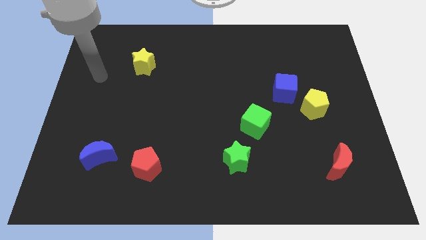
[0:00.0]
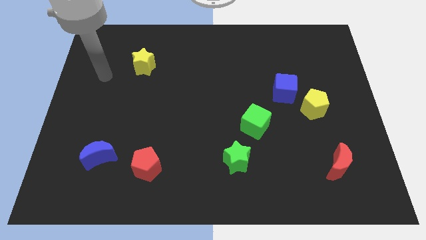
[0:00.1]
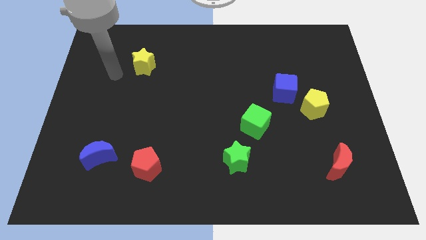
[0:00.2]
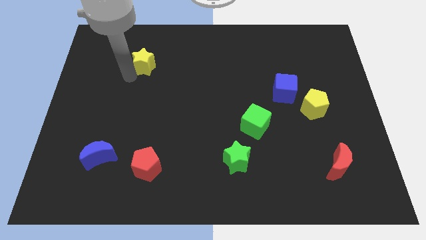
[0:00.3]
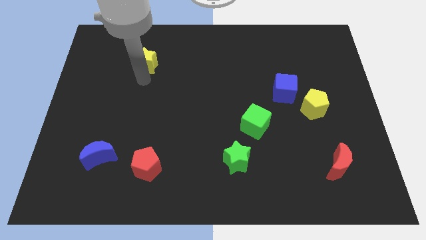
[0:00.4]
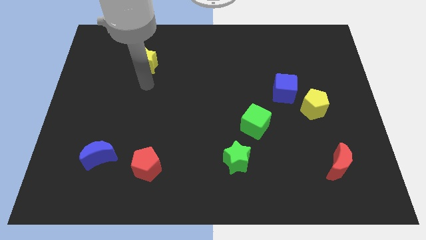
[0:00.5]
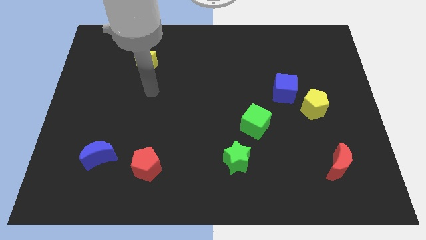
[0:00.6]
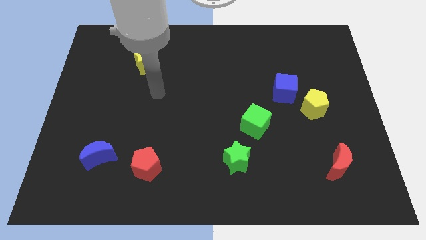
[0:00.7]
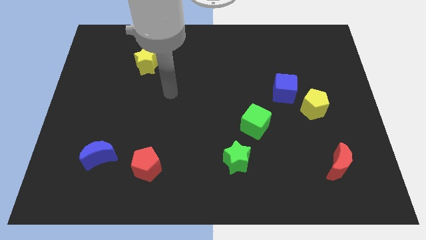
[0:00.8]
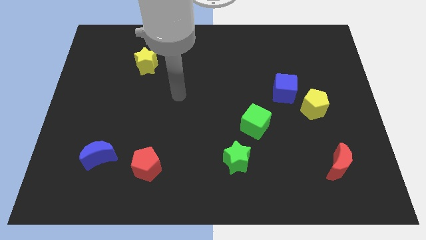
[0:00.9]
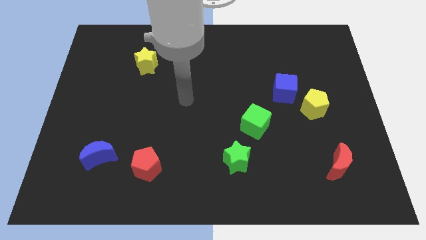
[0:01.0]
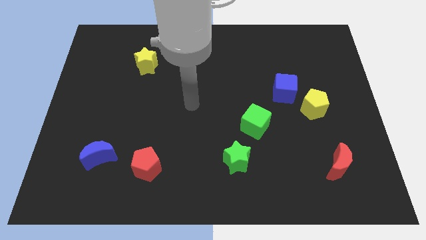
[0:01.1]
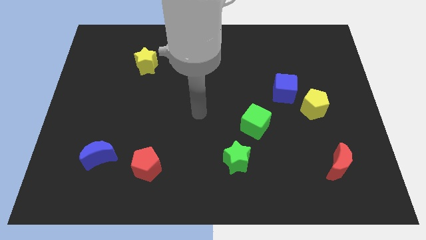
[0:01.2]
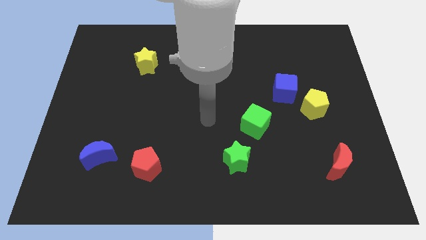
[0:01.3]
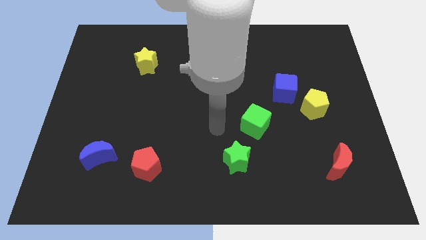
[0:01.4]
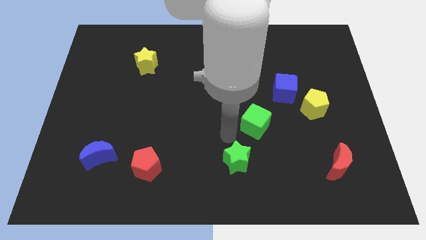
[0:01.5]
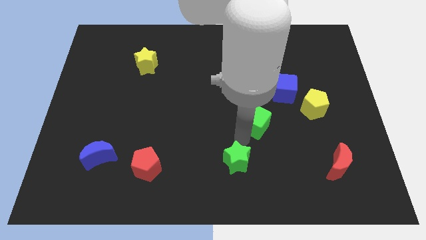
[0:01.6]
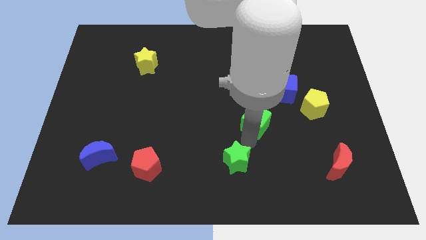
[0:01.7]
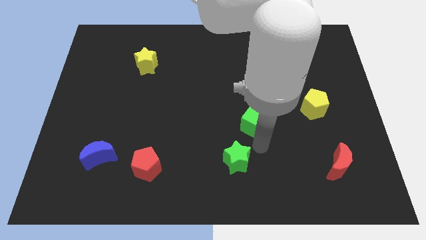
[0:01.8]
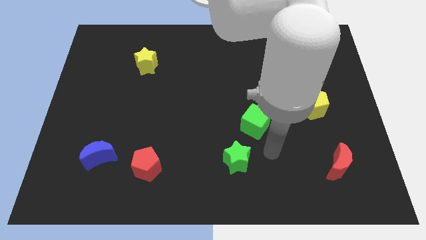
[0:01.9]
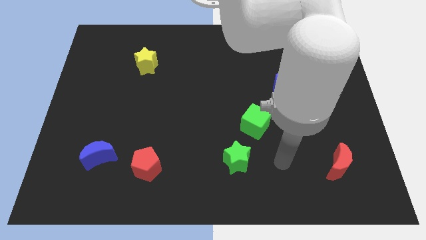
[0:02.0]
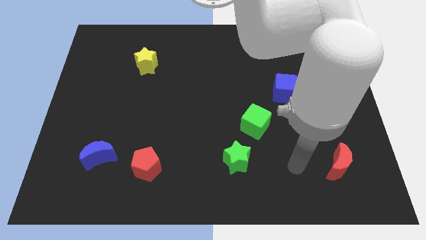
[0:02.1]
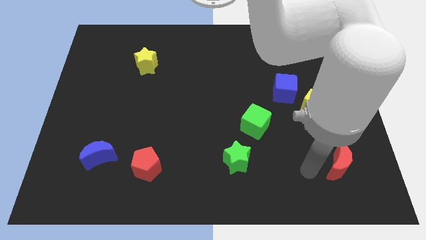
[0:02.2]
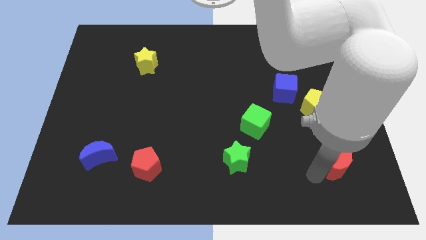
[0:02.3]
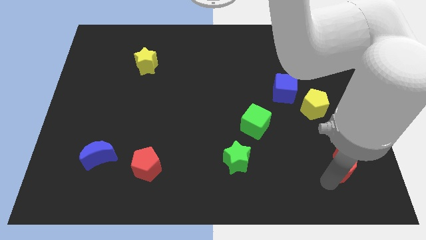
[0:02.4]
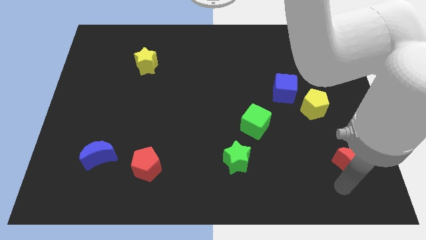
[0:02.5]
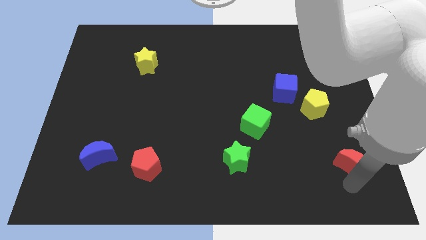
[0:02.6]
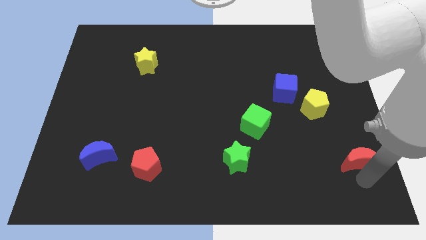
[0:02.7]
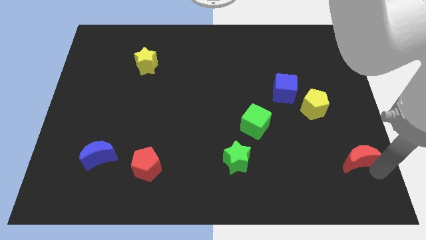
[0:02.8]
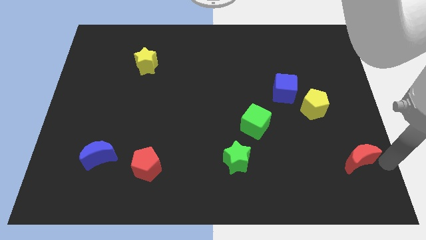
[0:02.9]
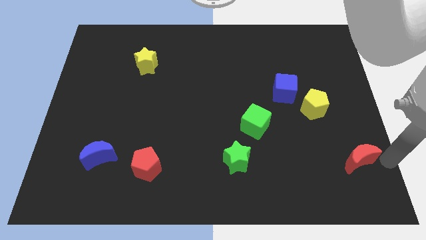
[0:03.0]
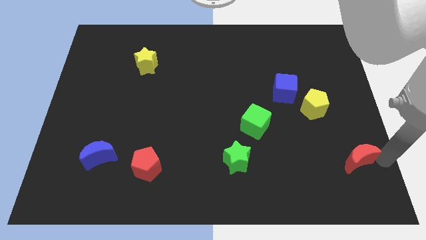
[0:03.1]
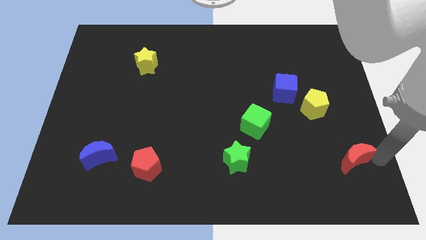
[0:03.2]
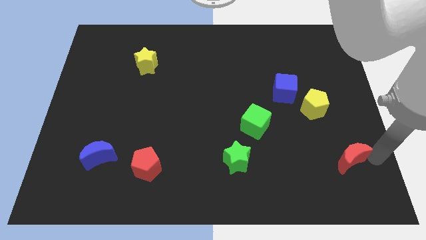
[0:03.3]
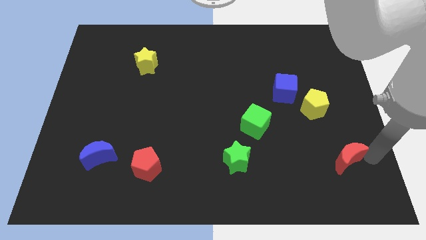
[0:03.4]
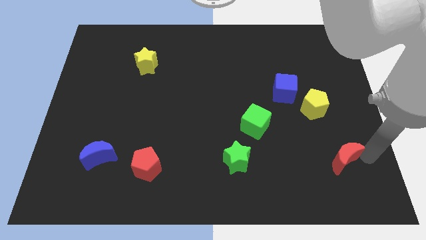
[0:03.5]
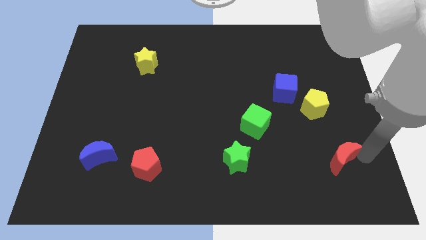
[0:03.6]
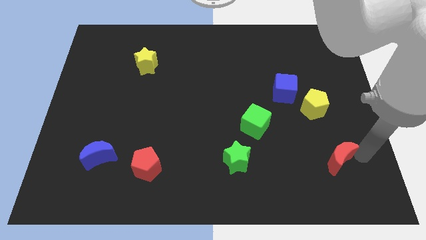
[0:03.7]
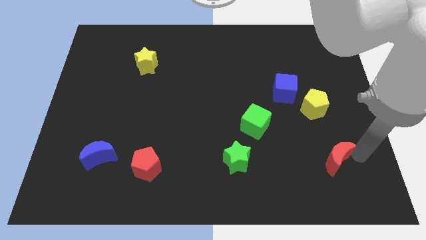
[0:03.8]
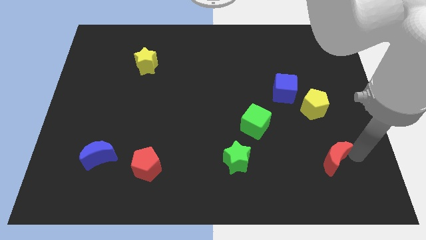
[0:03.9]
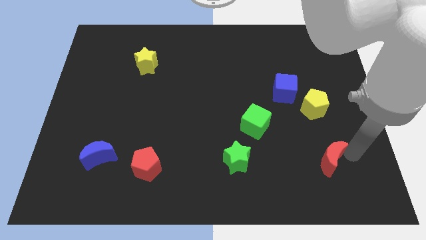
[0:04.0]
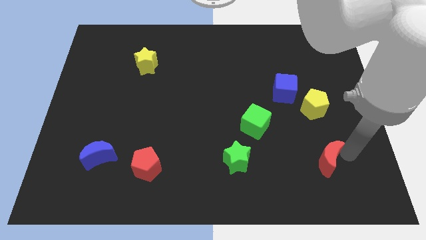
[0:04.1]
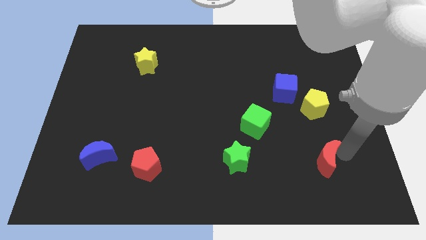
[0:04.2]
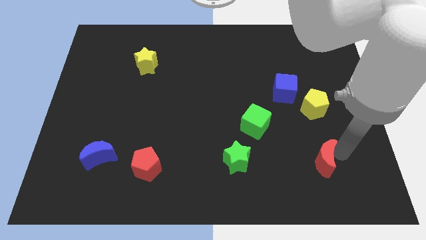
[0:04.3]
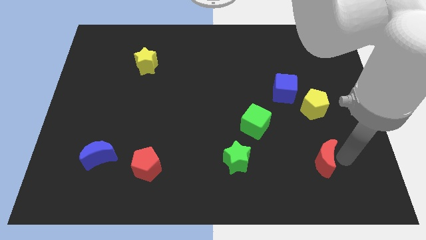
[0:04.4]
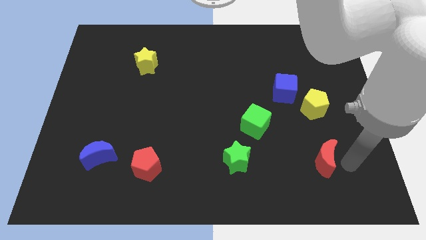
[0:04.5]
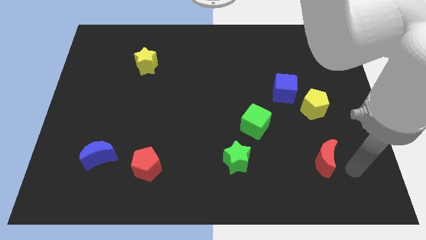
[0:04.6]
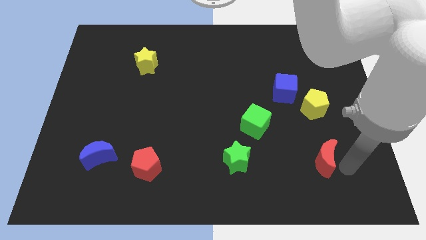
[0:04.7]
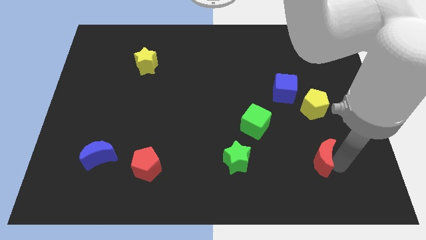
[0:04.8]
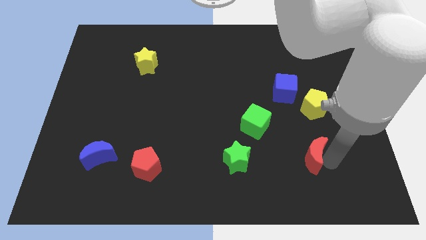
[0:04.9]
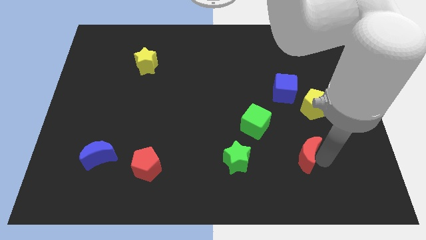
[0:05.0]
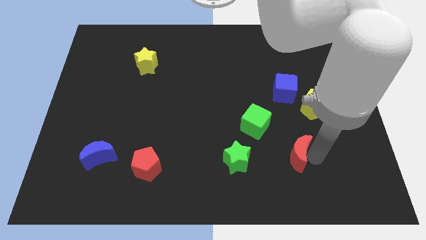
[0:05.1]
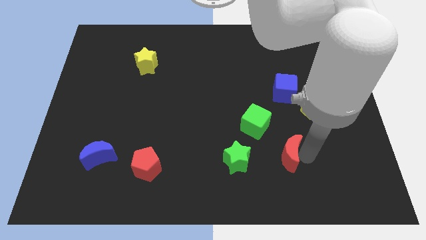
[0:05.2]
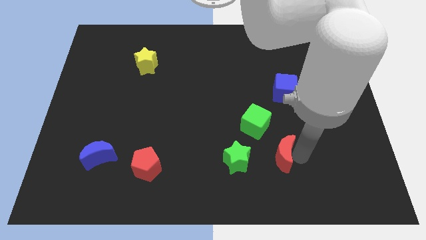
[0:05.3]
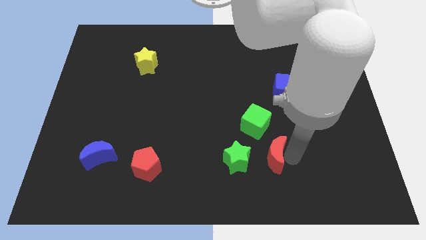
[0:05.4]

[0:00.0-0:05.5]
put the red moon to the top right of the green star

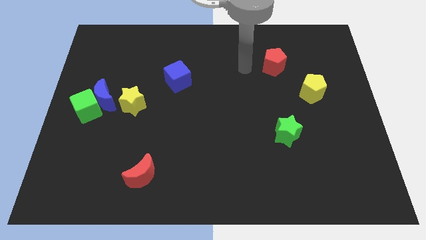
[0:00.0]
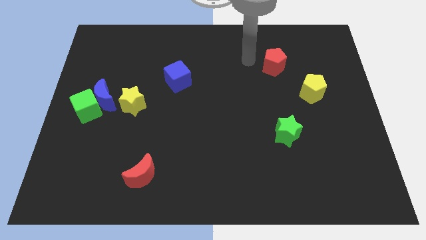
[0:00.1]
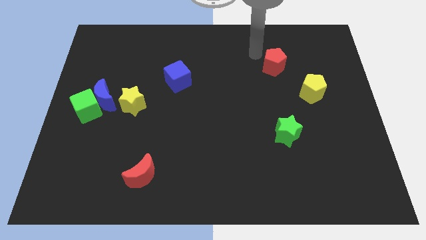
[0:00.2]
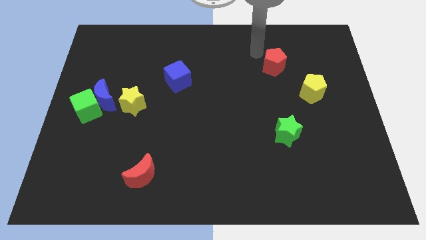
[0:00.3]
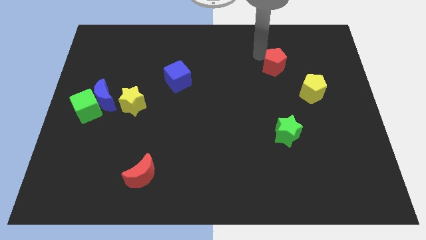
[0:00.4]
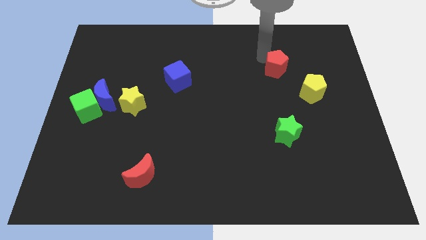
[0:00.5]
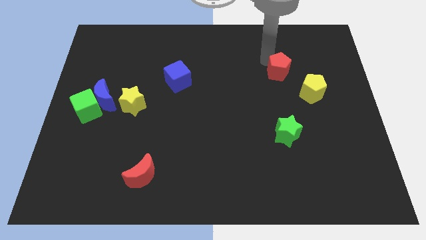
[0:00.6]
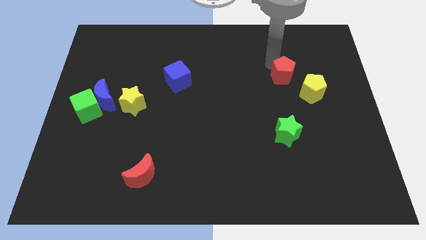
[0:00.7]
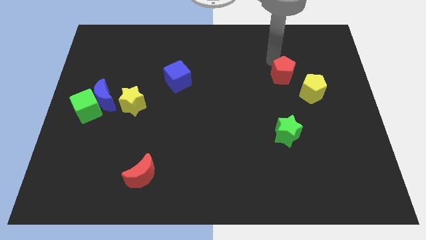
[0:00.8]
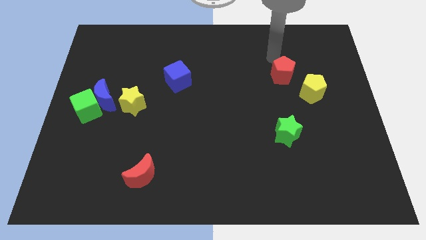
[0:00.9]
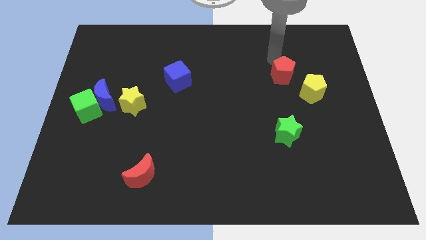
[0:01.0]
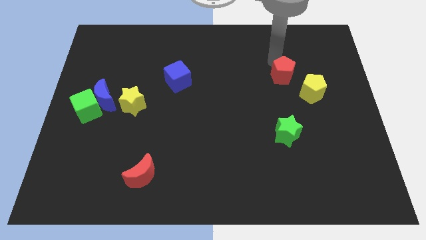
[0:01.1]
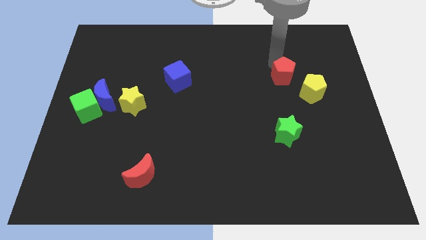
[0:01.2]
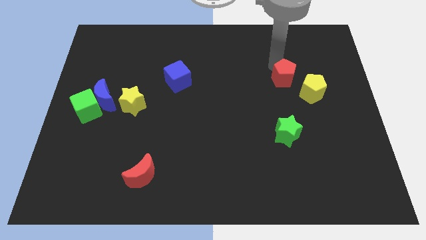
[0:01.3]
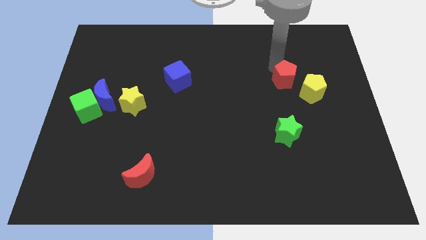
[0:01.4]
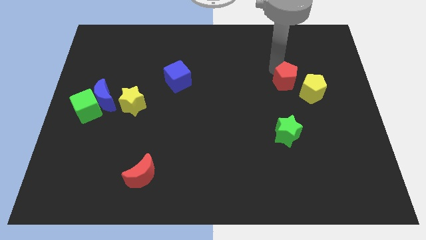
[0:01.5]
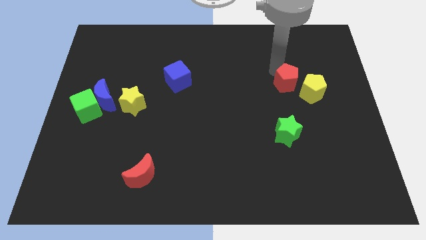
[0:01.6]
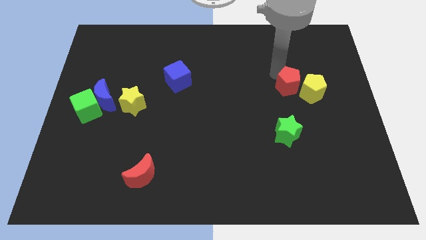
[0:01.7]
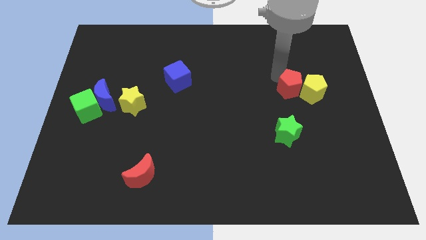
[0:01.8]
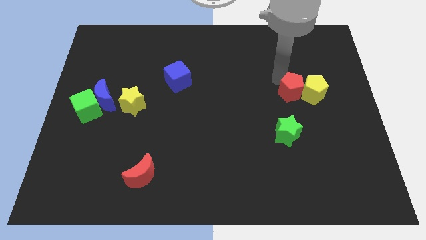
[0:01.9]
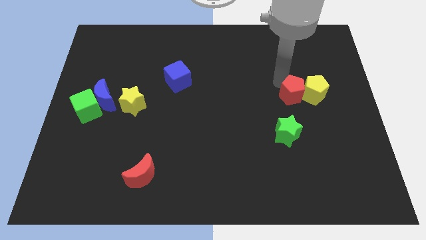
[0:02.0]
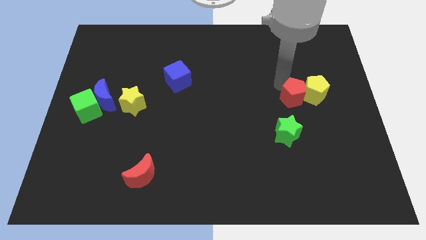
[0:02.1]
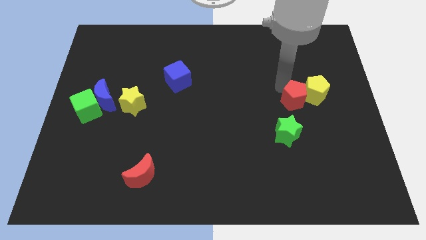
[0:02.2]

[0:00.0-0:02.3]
put the red pentagon to the top right of the green star

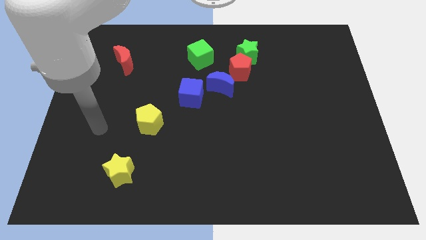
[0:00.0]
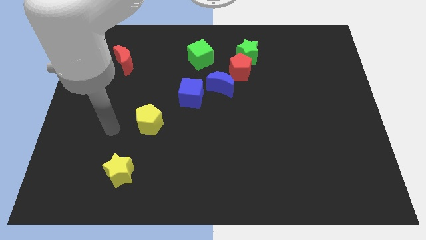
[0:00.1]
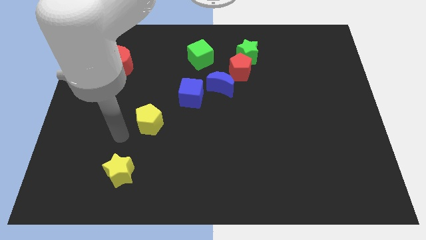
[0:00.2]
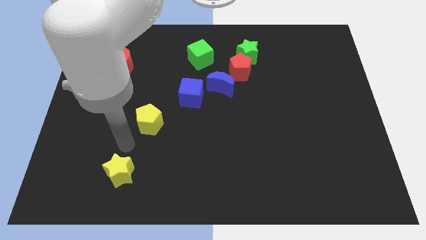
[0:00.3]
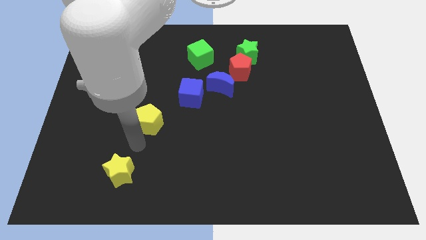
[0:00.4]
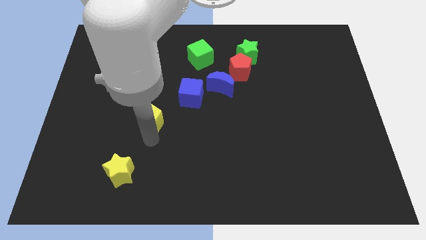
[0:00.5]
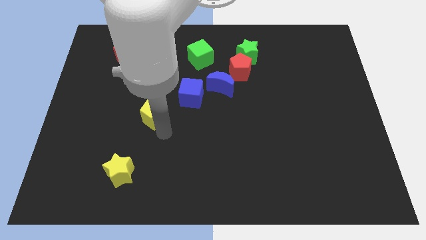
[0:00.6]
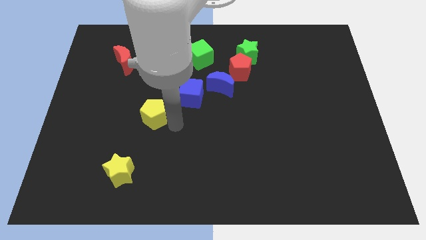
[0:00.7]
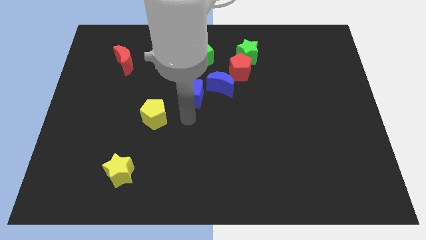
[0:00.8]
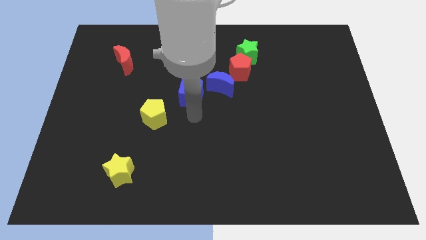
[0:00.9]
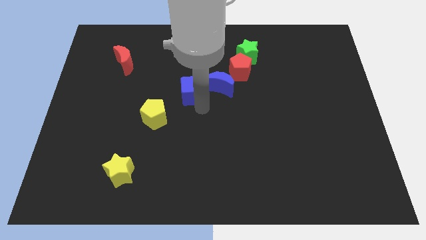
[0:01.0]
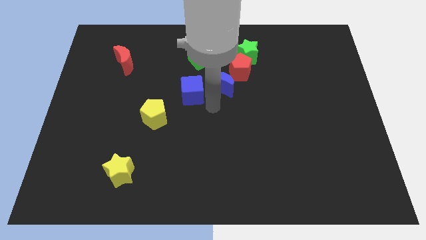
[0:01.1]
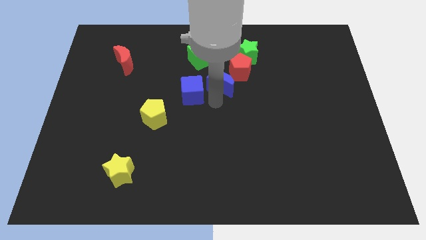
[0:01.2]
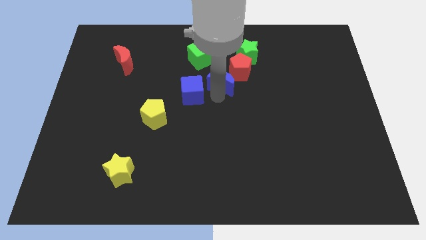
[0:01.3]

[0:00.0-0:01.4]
put the blue moon to the bottom left side of the green star
